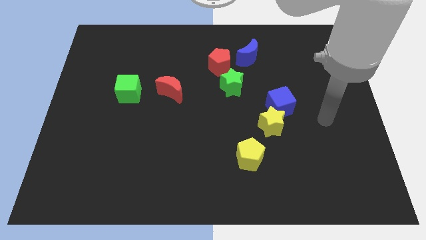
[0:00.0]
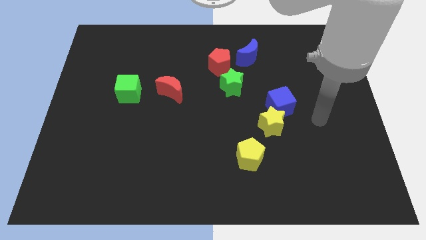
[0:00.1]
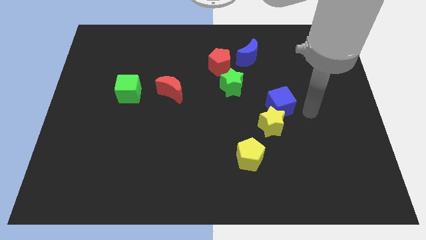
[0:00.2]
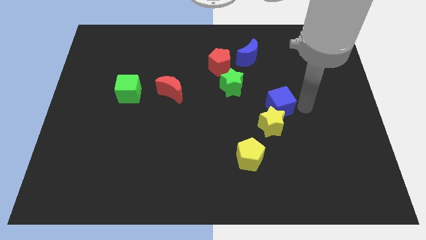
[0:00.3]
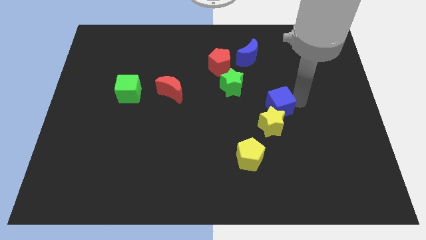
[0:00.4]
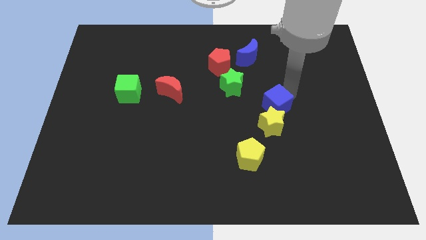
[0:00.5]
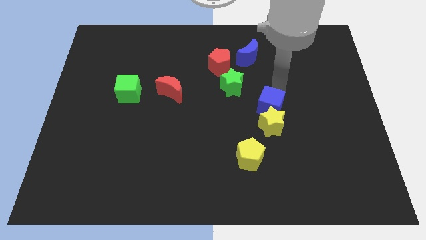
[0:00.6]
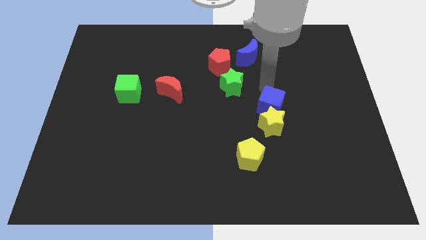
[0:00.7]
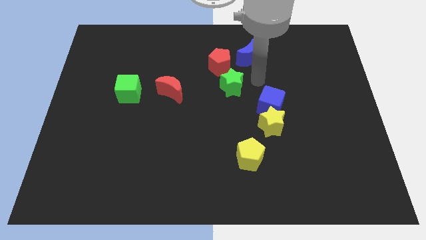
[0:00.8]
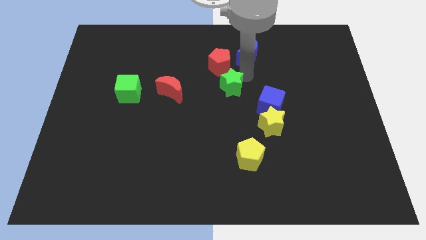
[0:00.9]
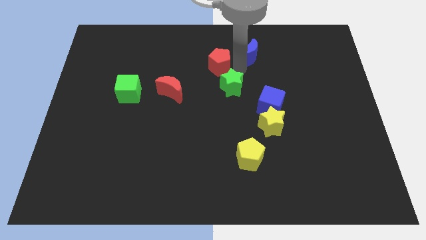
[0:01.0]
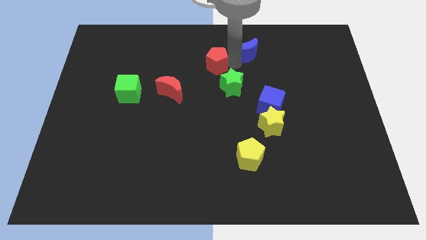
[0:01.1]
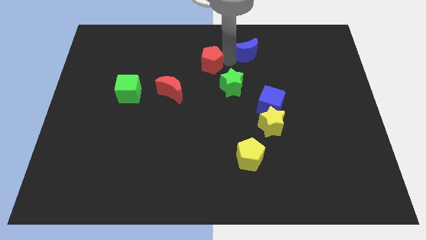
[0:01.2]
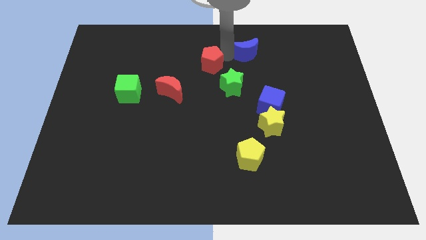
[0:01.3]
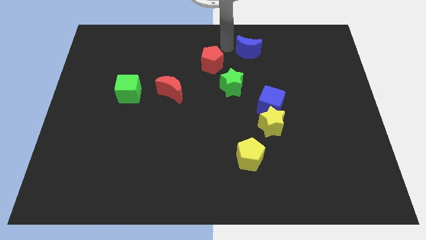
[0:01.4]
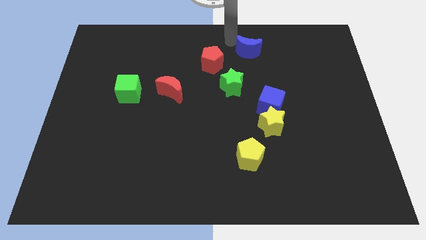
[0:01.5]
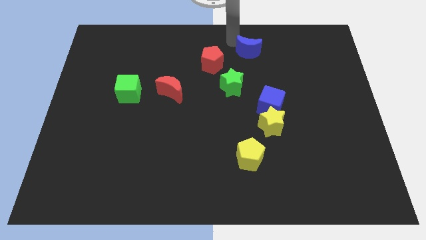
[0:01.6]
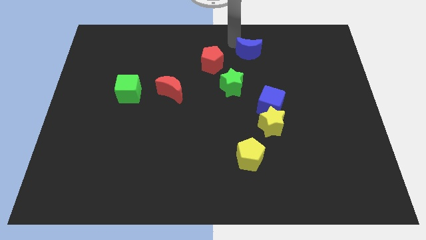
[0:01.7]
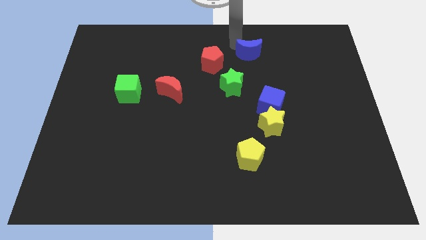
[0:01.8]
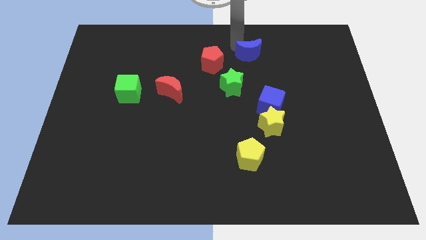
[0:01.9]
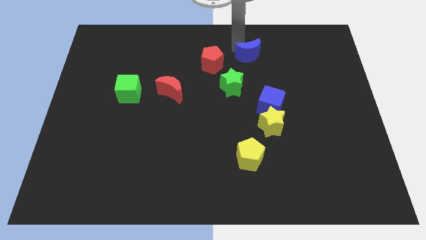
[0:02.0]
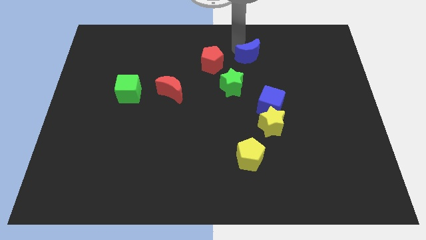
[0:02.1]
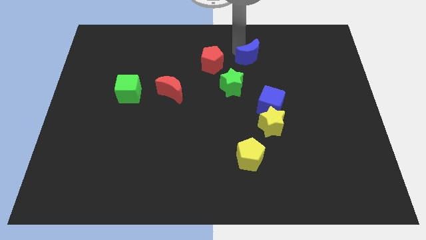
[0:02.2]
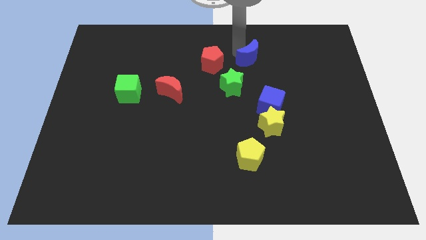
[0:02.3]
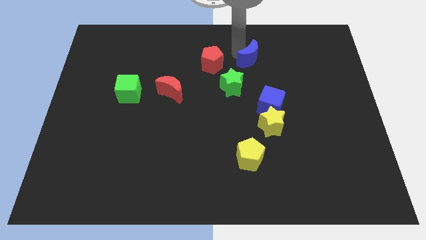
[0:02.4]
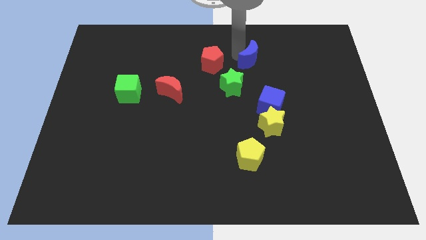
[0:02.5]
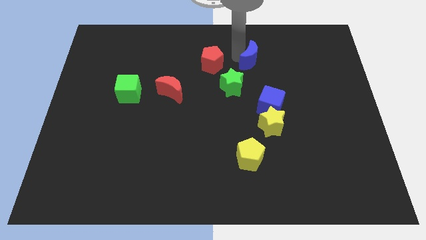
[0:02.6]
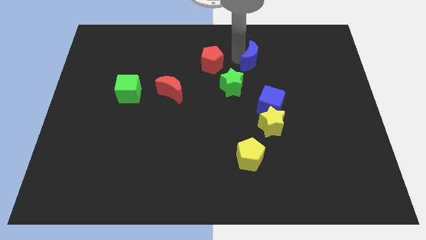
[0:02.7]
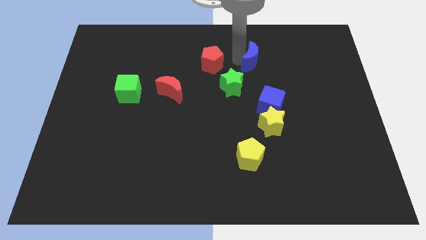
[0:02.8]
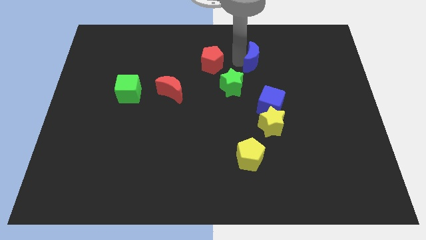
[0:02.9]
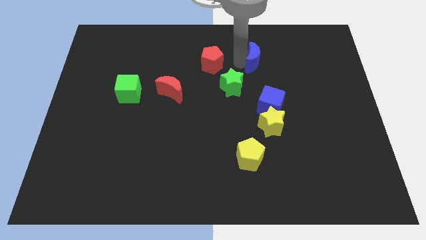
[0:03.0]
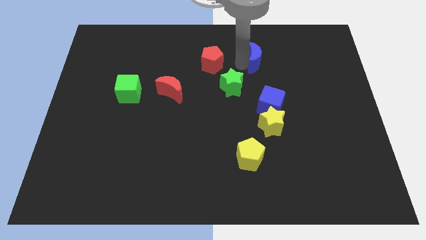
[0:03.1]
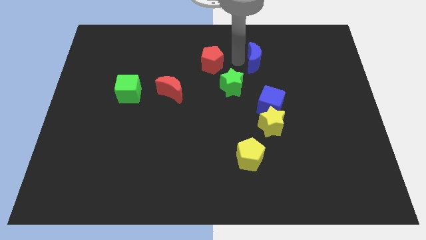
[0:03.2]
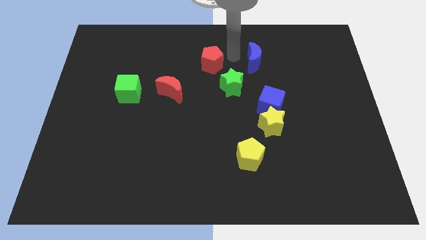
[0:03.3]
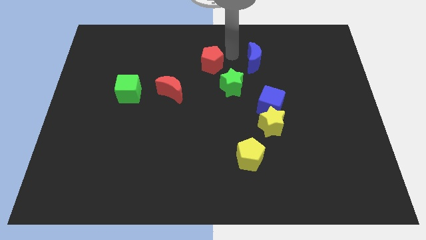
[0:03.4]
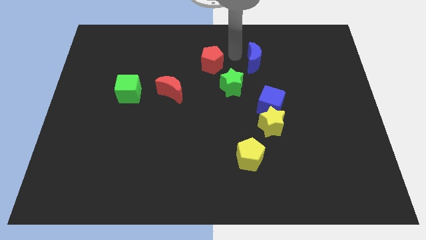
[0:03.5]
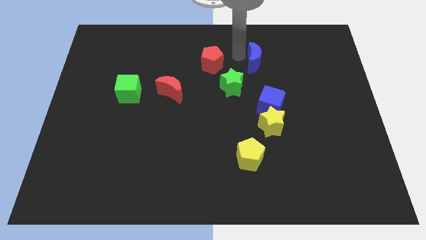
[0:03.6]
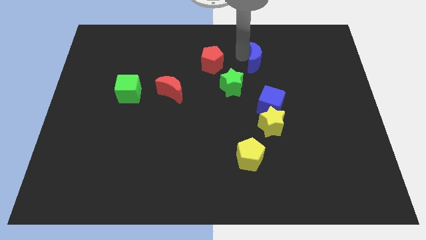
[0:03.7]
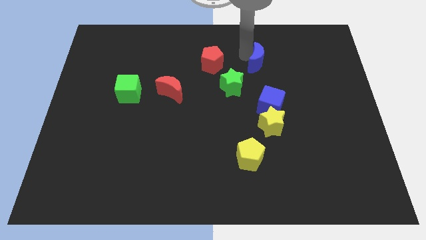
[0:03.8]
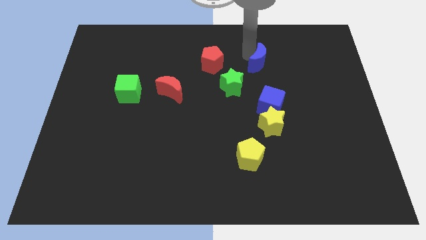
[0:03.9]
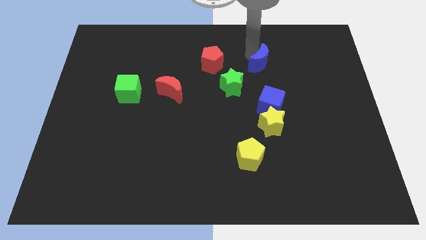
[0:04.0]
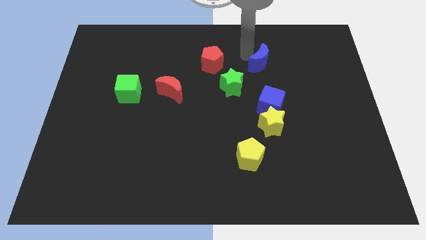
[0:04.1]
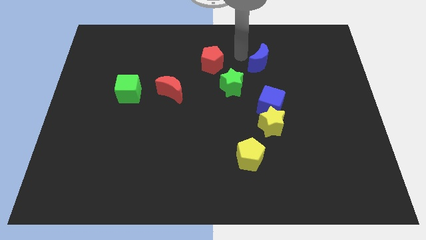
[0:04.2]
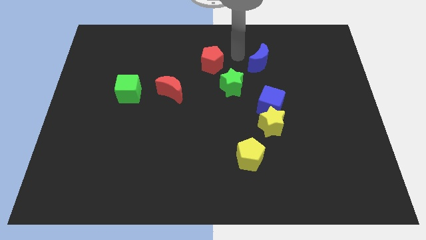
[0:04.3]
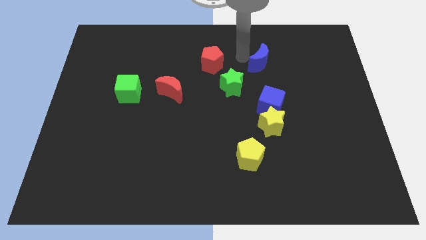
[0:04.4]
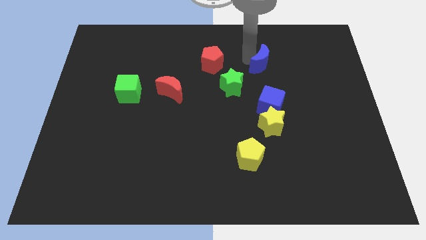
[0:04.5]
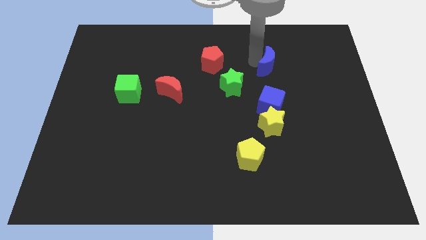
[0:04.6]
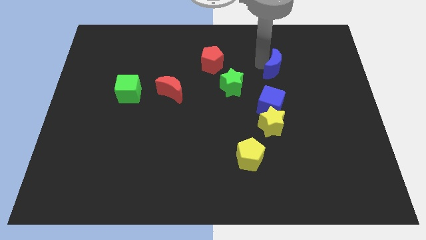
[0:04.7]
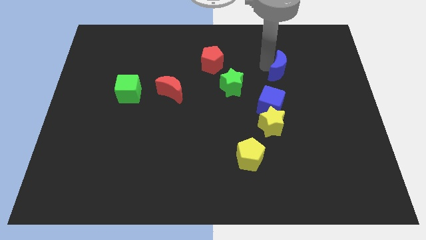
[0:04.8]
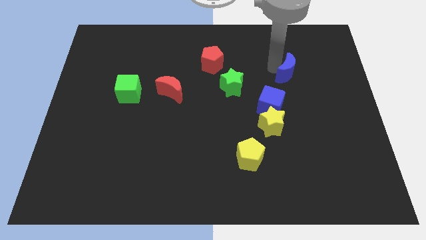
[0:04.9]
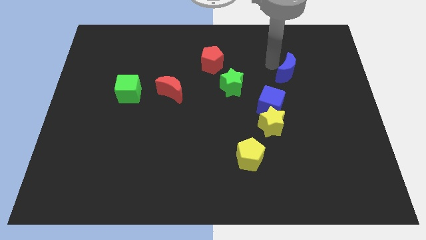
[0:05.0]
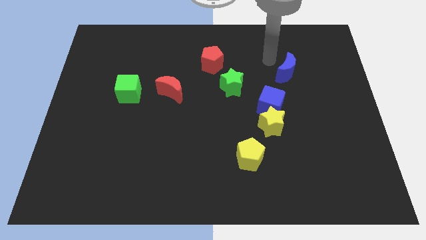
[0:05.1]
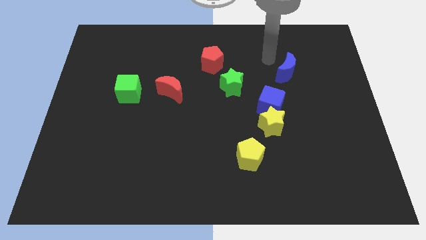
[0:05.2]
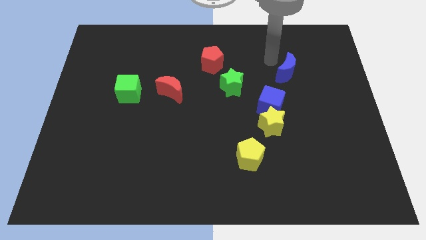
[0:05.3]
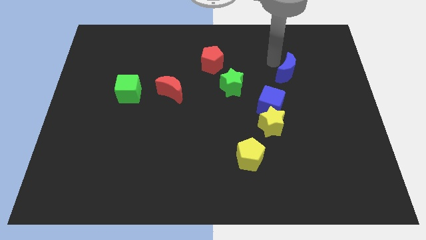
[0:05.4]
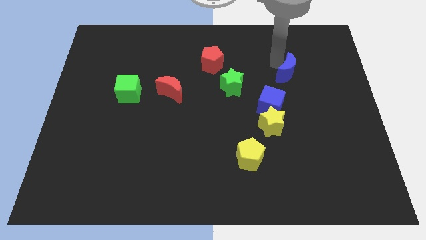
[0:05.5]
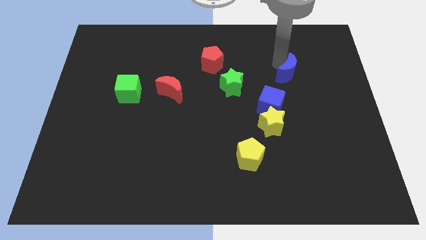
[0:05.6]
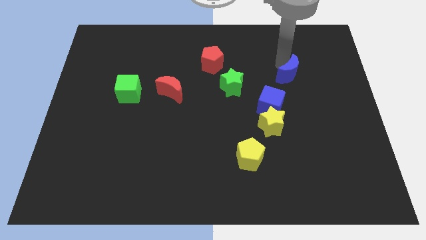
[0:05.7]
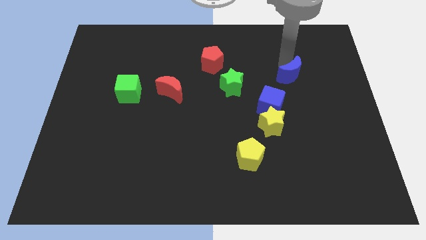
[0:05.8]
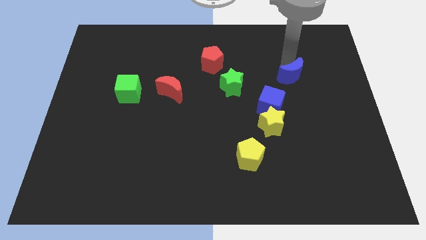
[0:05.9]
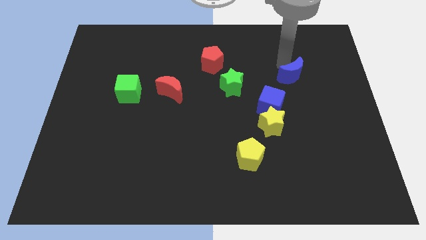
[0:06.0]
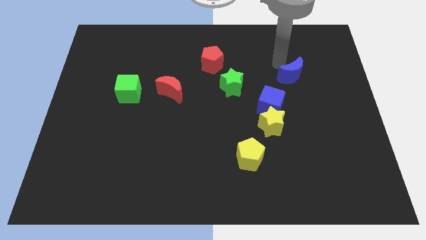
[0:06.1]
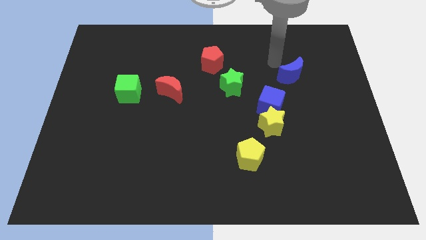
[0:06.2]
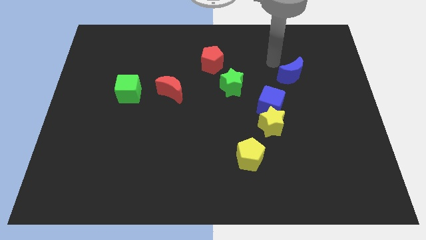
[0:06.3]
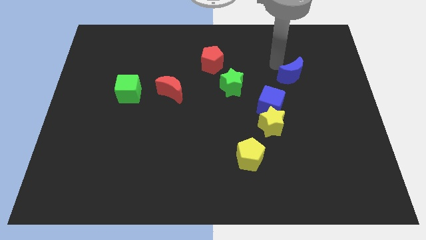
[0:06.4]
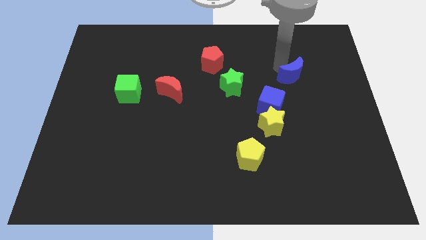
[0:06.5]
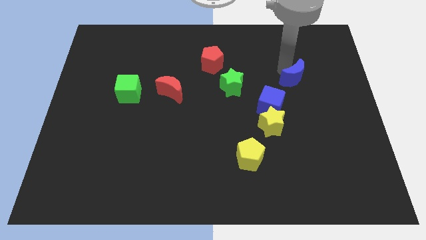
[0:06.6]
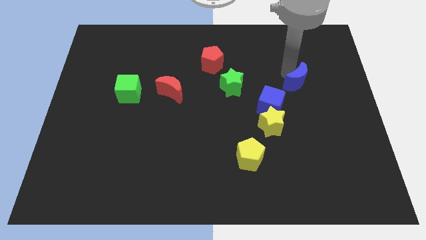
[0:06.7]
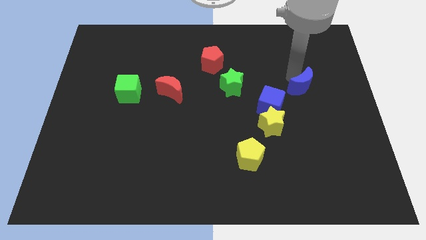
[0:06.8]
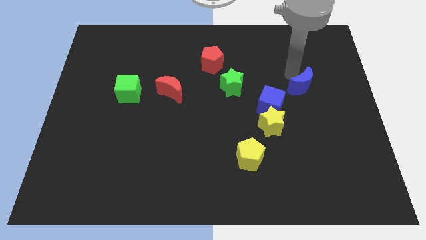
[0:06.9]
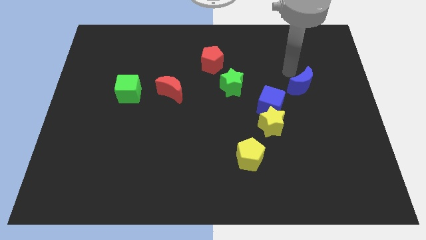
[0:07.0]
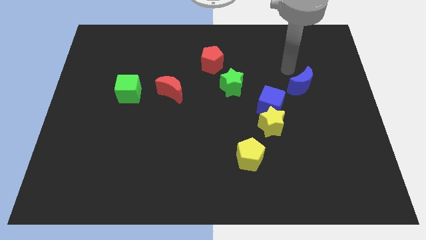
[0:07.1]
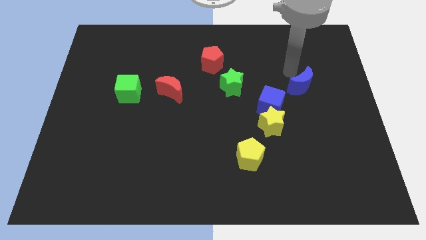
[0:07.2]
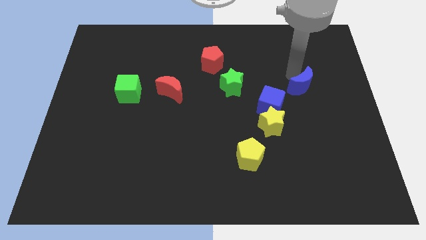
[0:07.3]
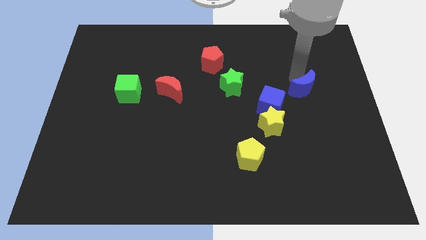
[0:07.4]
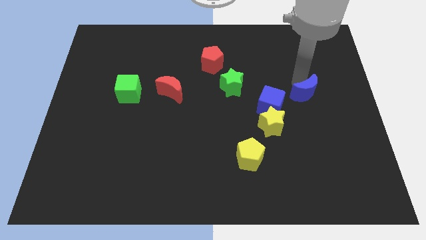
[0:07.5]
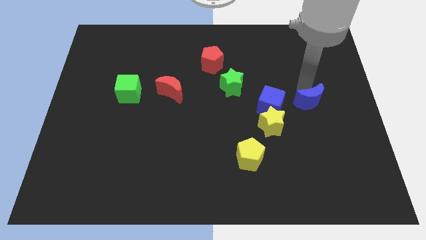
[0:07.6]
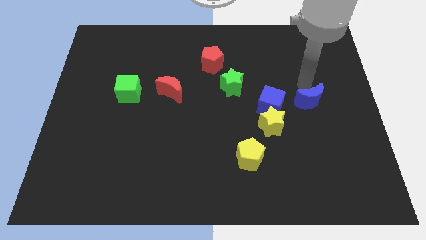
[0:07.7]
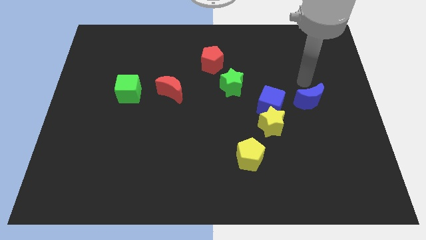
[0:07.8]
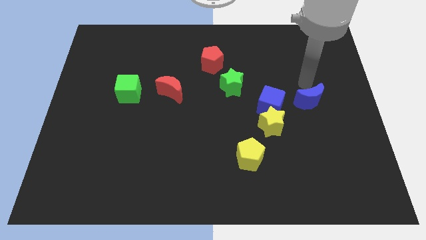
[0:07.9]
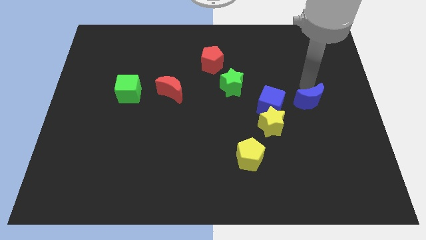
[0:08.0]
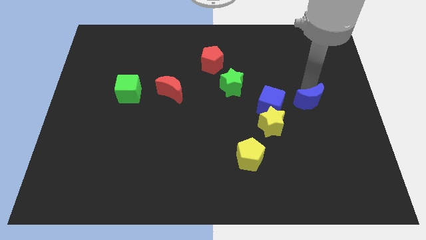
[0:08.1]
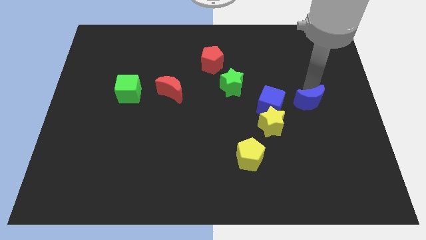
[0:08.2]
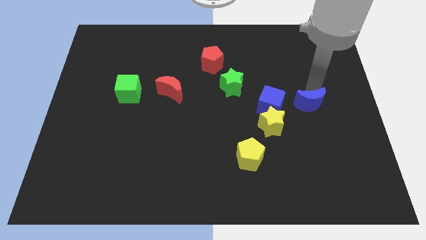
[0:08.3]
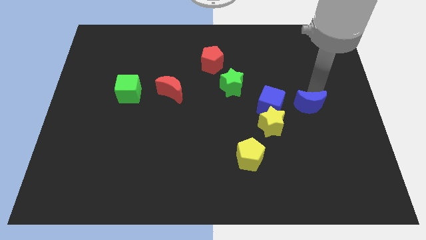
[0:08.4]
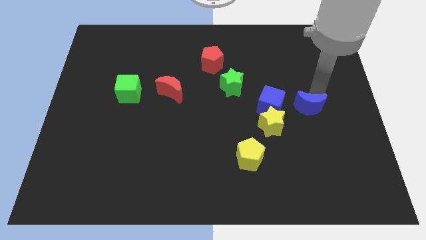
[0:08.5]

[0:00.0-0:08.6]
move the blue moon right of the yellow star
